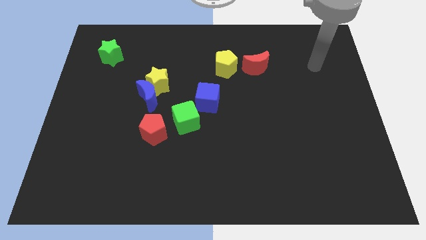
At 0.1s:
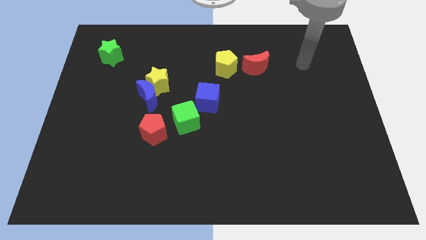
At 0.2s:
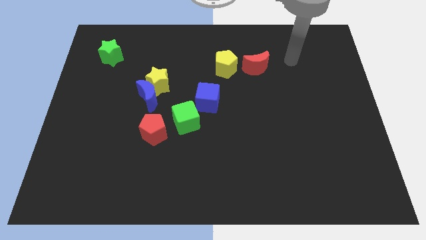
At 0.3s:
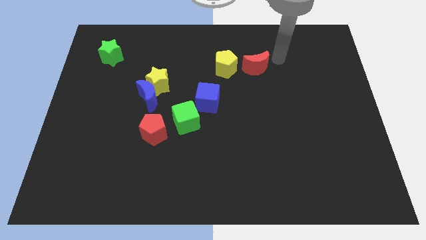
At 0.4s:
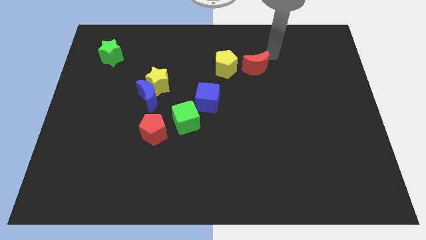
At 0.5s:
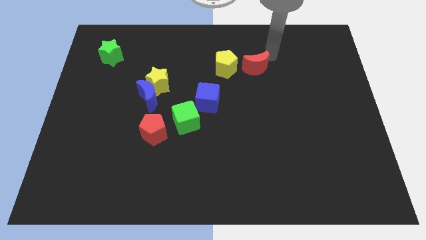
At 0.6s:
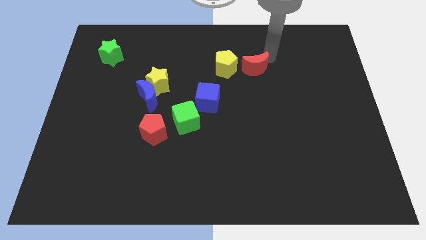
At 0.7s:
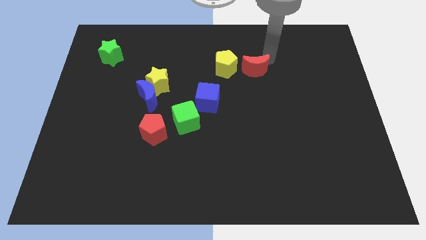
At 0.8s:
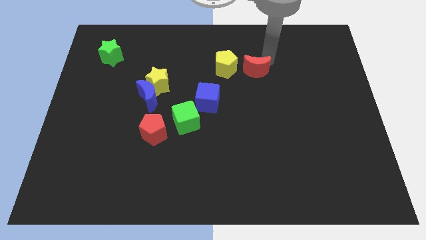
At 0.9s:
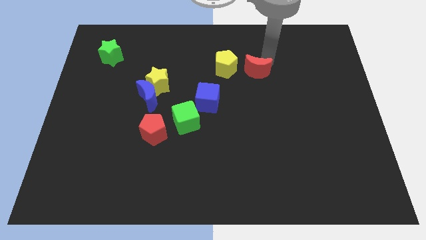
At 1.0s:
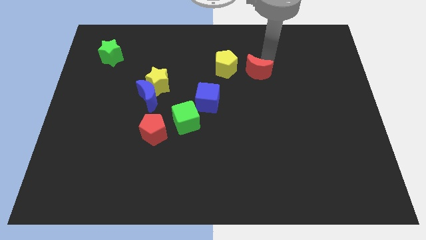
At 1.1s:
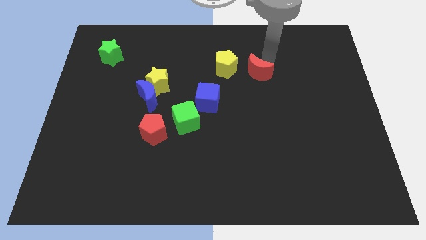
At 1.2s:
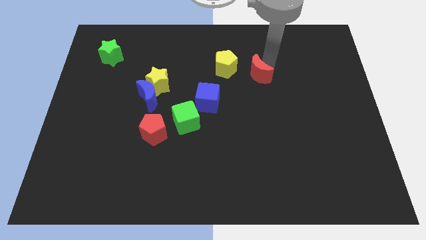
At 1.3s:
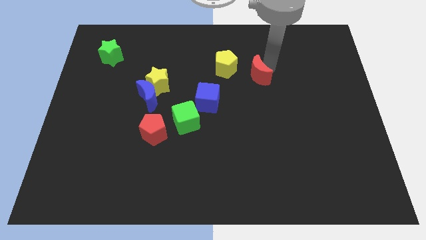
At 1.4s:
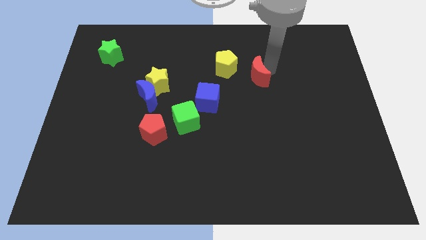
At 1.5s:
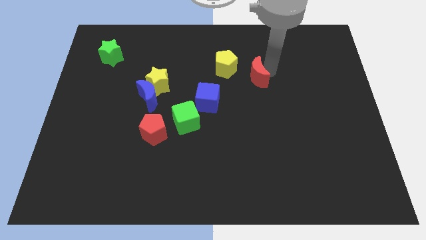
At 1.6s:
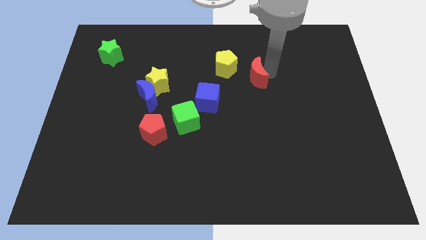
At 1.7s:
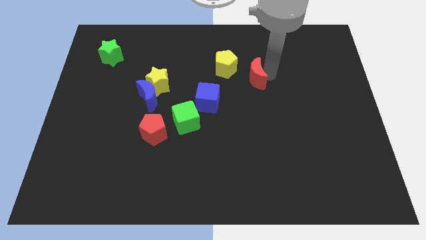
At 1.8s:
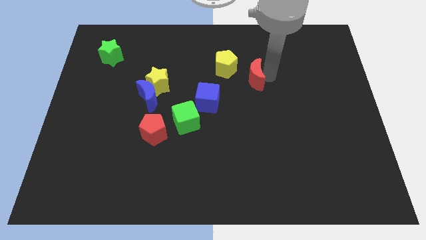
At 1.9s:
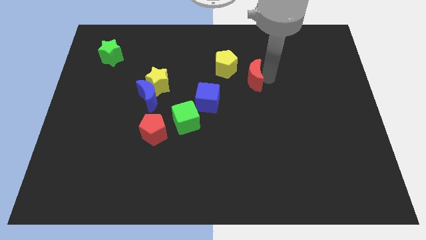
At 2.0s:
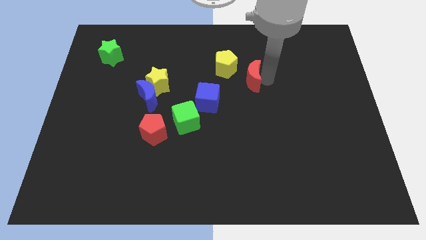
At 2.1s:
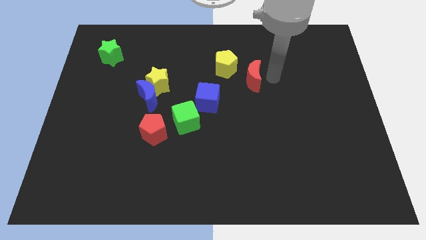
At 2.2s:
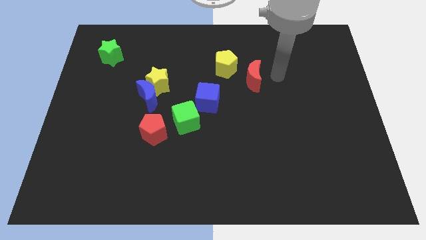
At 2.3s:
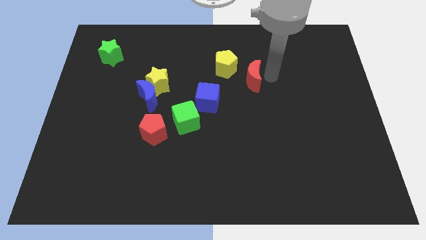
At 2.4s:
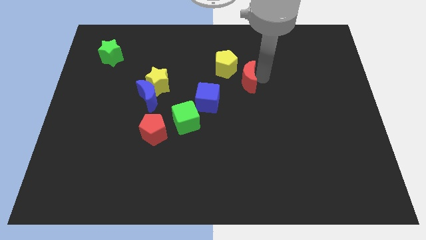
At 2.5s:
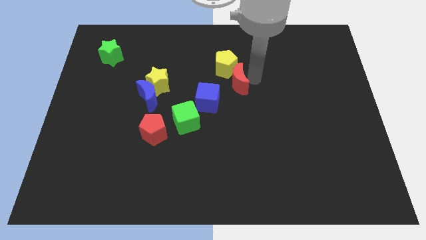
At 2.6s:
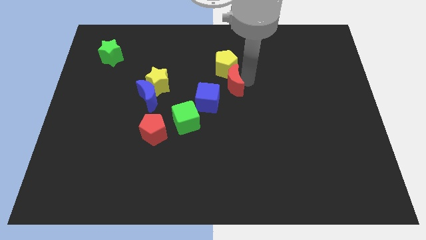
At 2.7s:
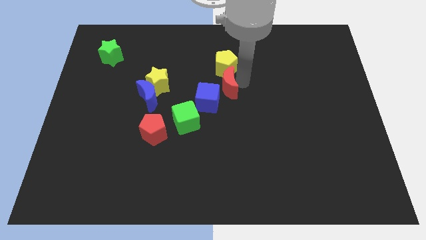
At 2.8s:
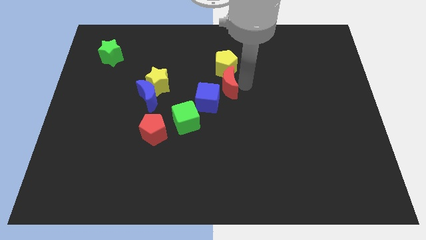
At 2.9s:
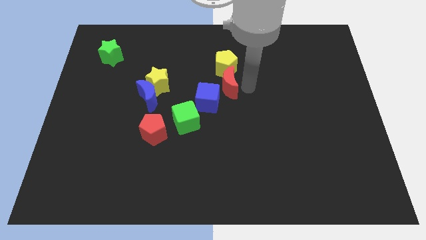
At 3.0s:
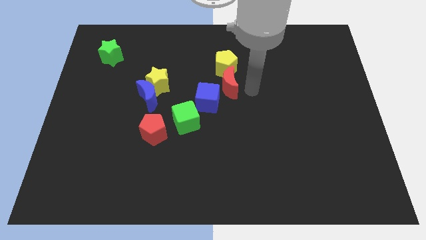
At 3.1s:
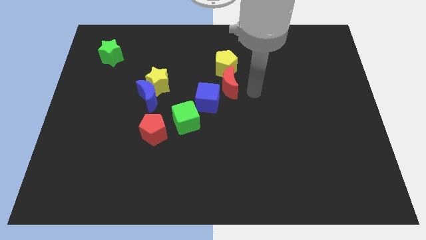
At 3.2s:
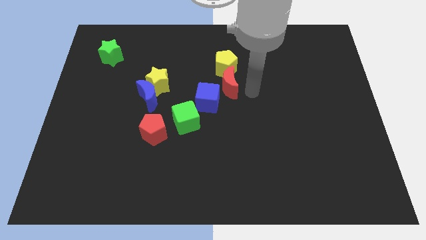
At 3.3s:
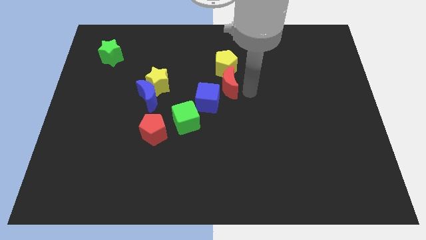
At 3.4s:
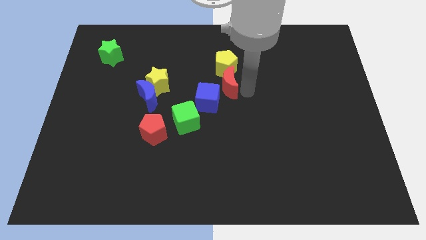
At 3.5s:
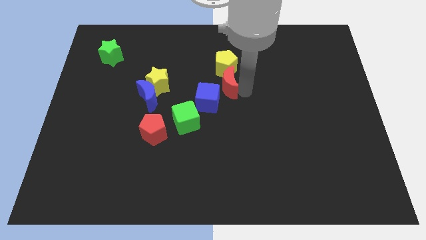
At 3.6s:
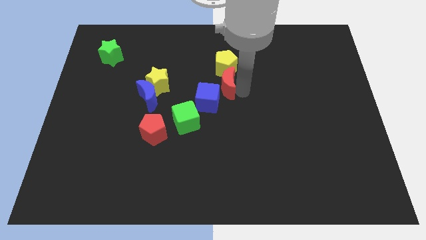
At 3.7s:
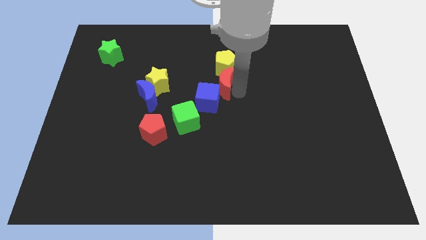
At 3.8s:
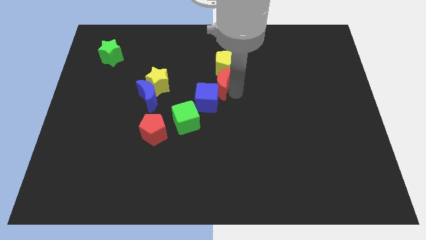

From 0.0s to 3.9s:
push the red moon to the left a bit

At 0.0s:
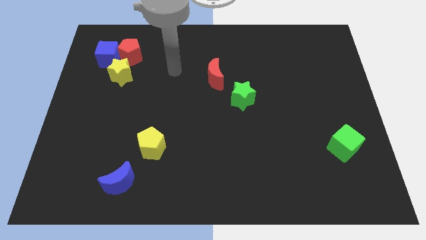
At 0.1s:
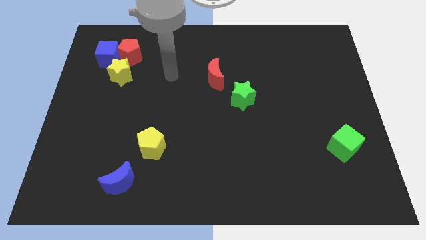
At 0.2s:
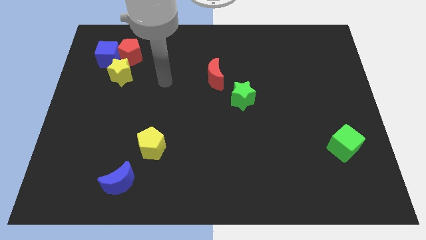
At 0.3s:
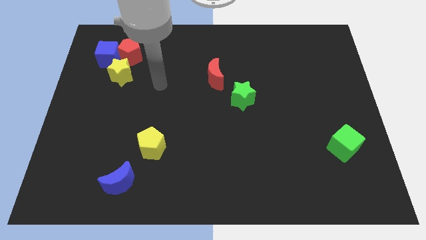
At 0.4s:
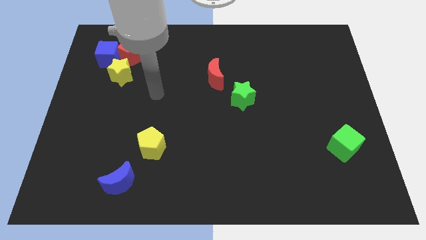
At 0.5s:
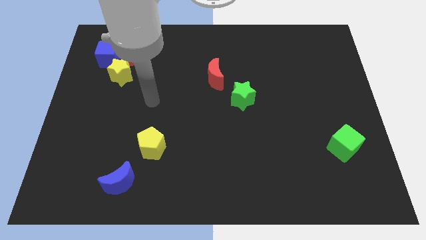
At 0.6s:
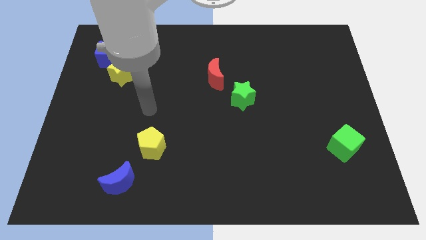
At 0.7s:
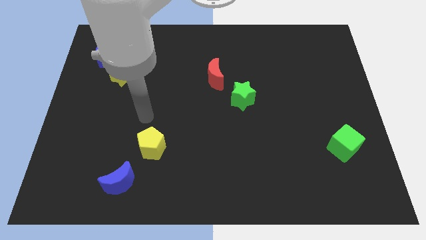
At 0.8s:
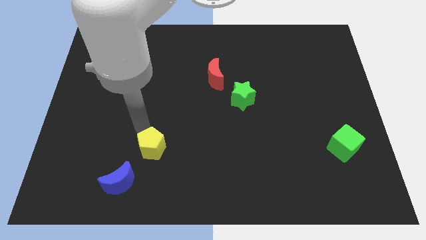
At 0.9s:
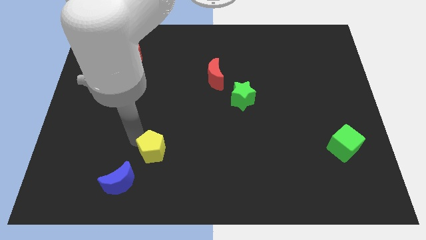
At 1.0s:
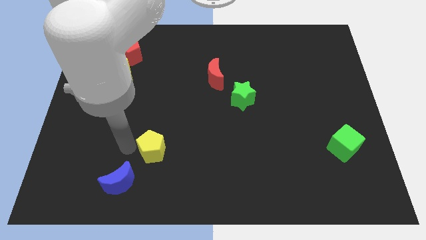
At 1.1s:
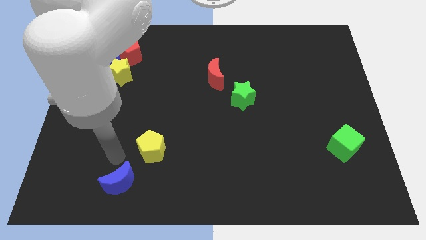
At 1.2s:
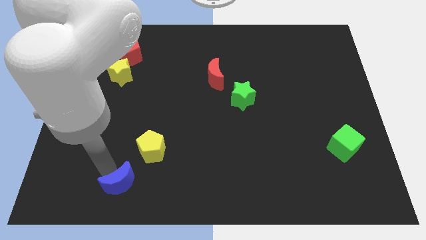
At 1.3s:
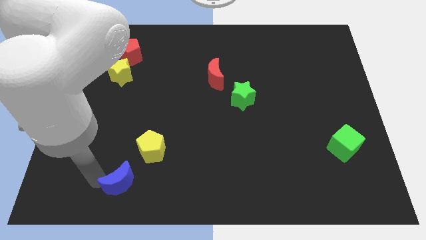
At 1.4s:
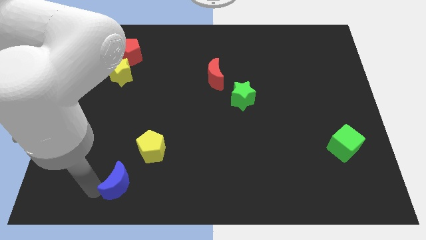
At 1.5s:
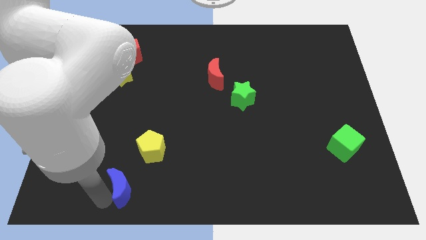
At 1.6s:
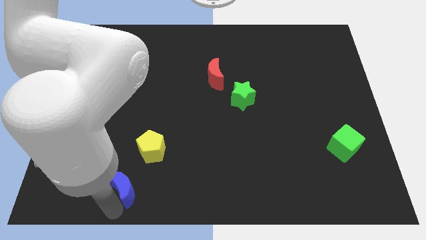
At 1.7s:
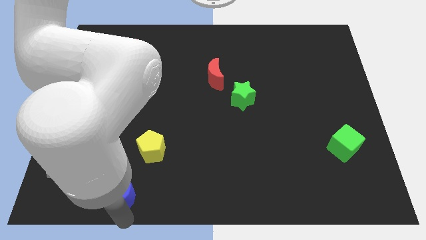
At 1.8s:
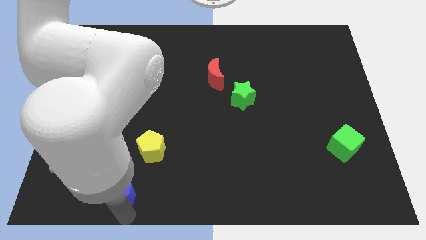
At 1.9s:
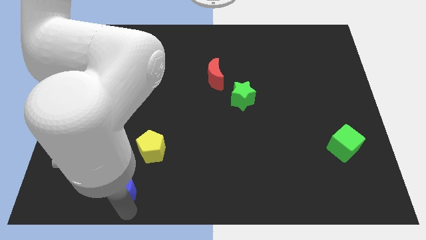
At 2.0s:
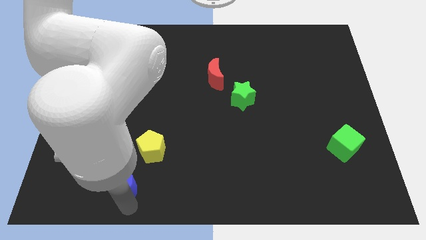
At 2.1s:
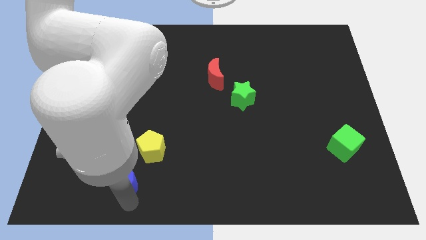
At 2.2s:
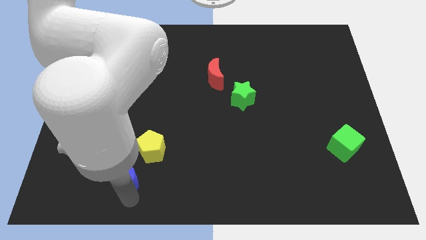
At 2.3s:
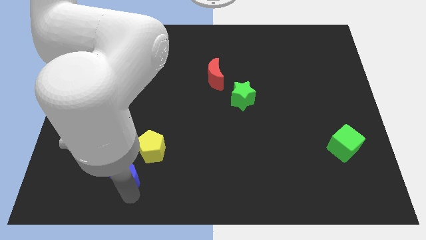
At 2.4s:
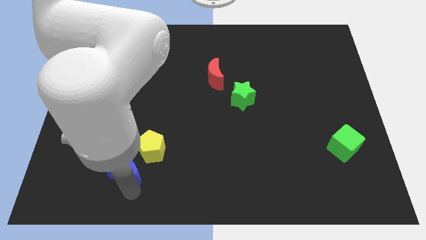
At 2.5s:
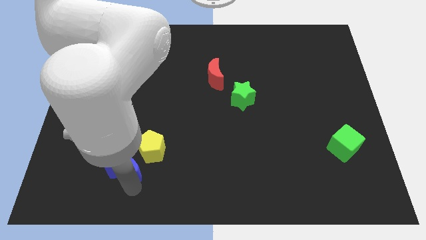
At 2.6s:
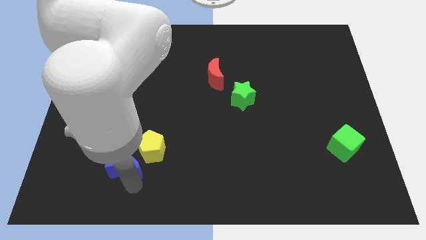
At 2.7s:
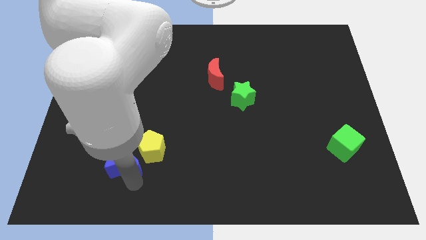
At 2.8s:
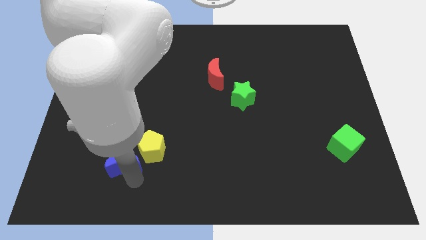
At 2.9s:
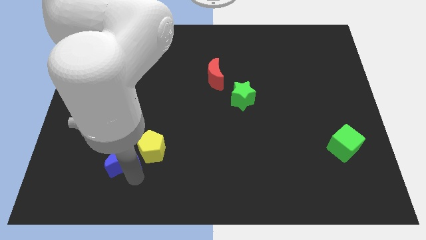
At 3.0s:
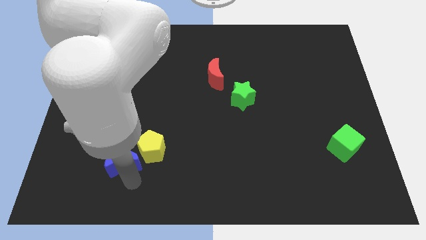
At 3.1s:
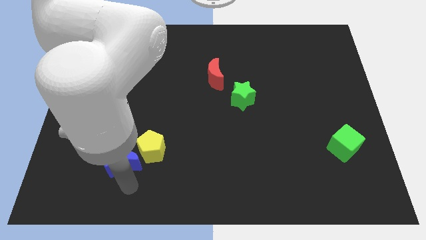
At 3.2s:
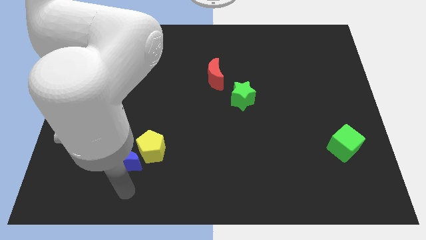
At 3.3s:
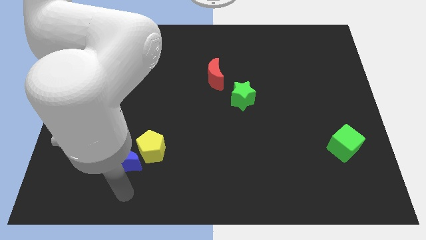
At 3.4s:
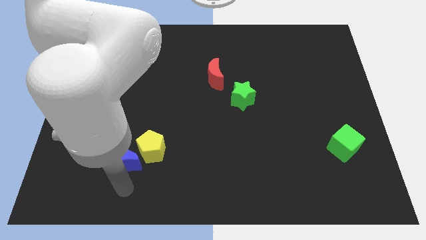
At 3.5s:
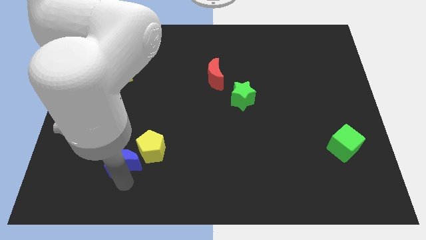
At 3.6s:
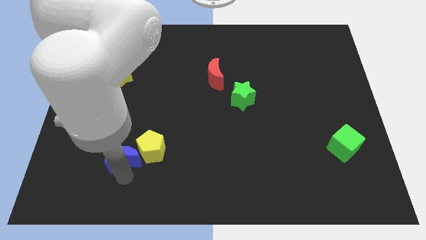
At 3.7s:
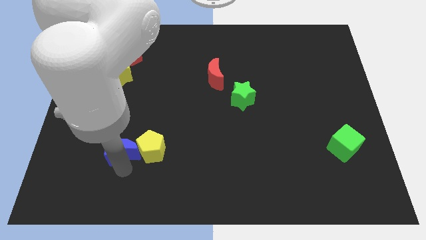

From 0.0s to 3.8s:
slightly move the blue moon upwards
